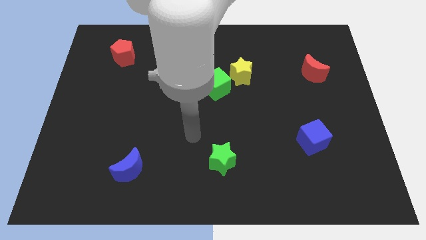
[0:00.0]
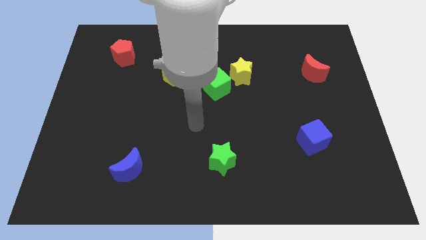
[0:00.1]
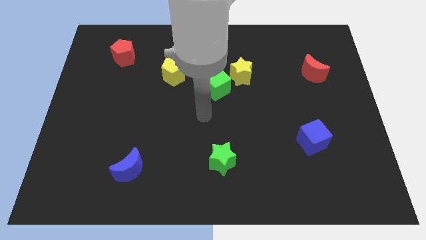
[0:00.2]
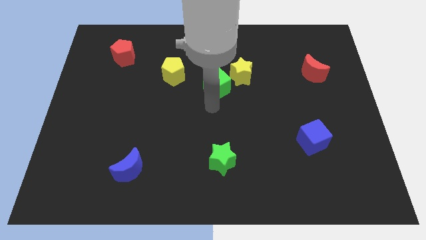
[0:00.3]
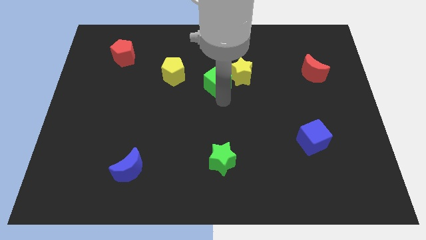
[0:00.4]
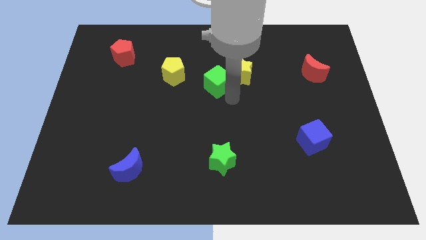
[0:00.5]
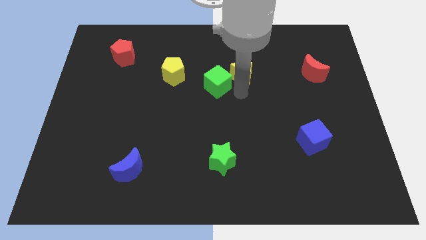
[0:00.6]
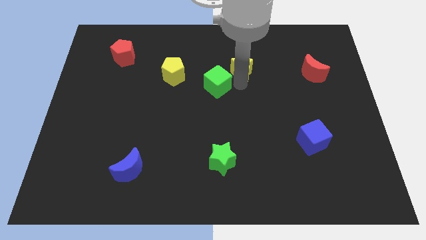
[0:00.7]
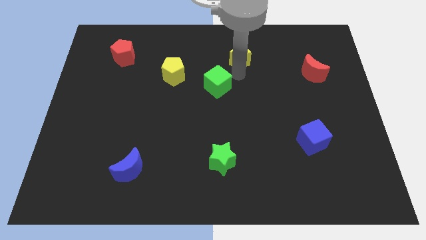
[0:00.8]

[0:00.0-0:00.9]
separate the green cube from the yellow star

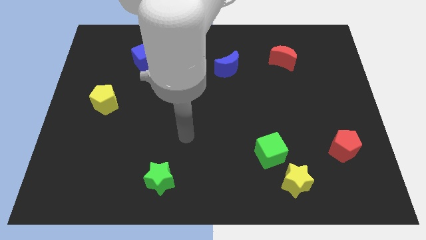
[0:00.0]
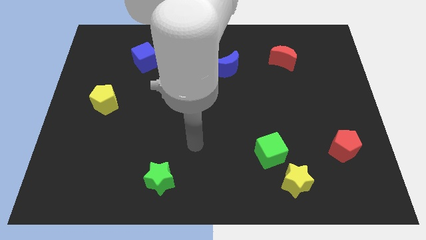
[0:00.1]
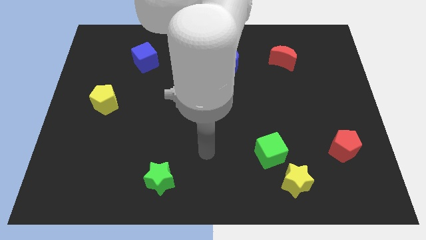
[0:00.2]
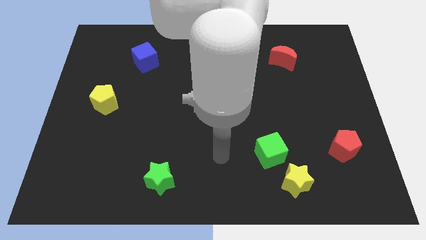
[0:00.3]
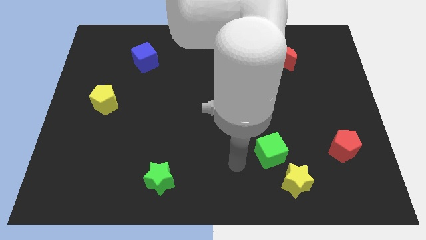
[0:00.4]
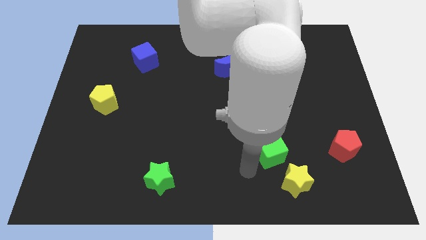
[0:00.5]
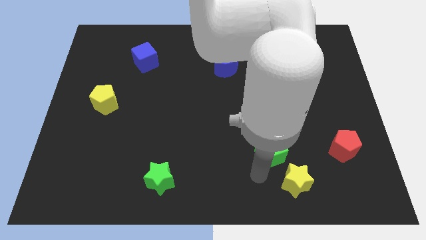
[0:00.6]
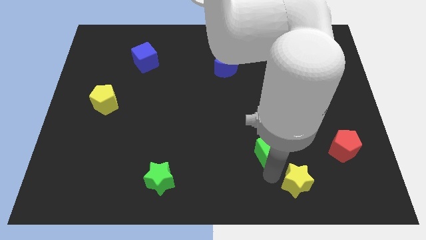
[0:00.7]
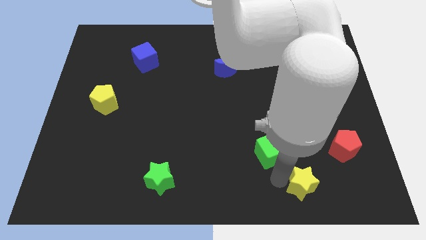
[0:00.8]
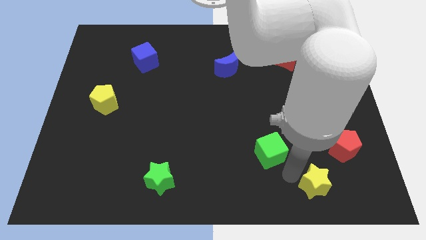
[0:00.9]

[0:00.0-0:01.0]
pull the green cube apart from the yellow star

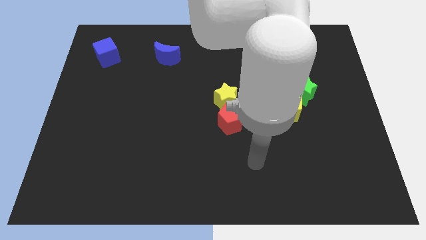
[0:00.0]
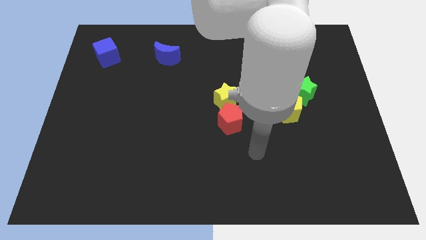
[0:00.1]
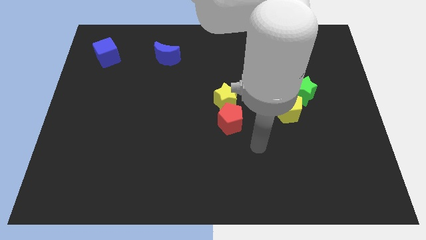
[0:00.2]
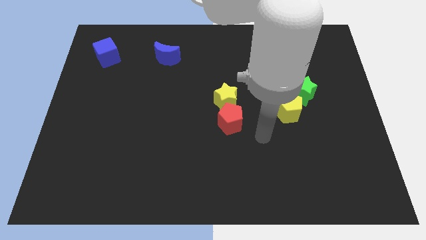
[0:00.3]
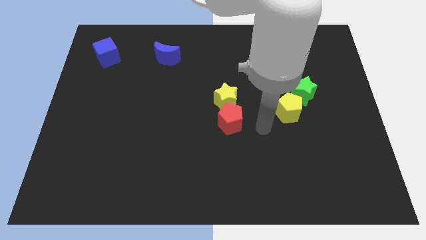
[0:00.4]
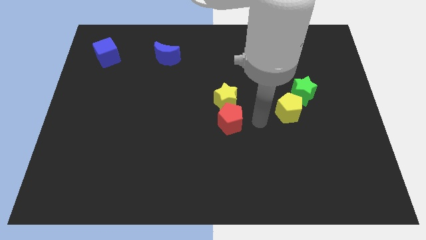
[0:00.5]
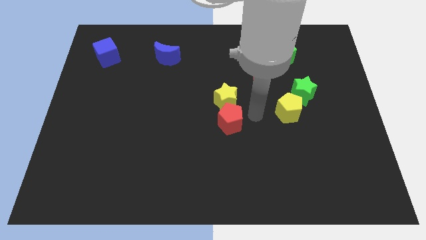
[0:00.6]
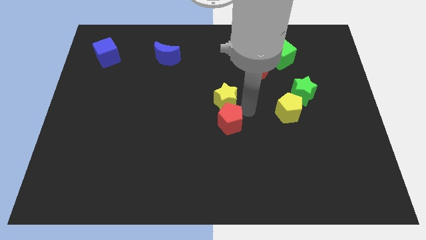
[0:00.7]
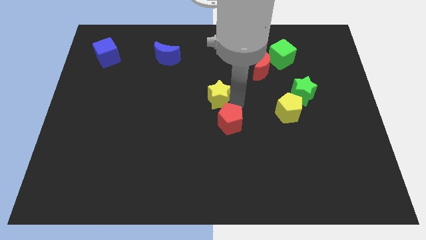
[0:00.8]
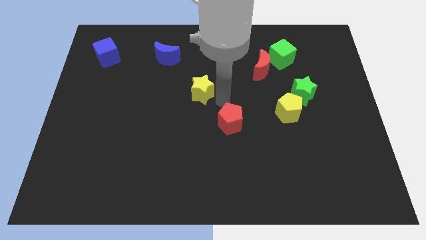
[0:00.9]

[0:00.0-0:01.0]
pull the red pentagon apart from the yellow star

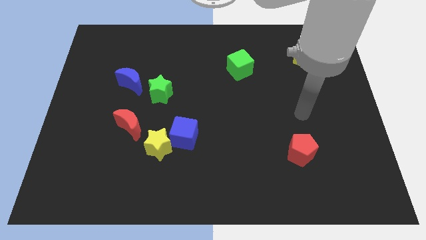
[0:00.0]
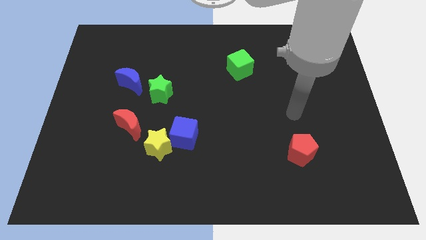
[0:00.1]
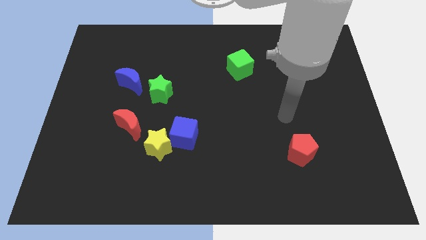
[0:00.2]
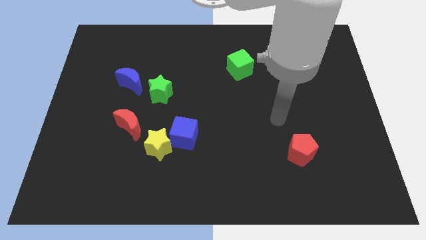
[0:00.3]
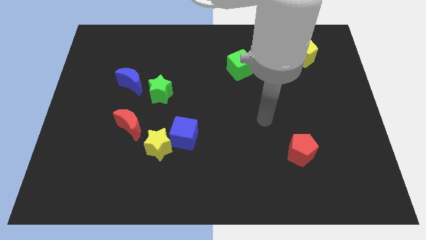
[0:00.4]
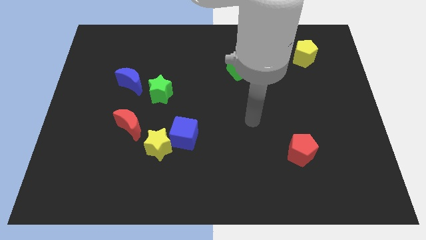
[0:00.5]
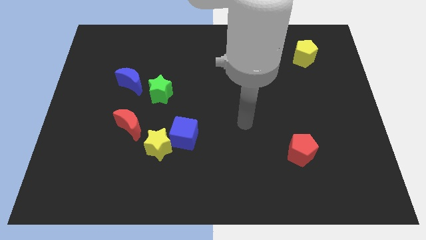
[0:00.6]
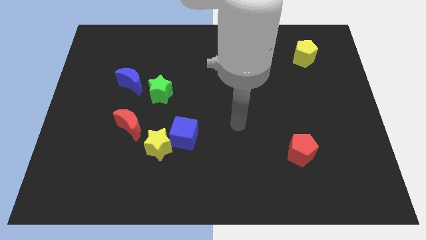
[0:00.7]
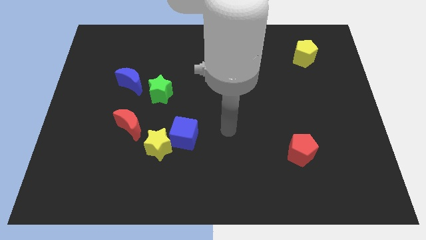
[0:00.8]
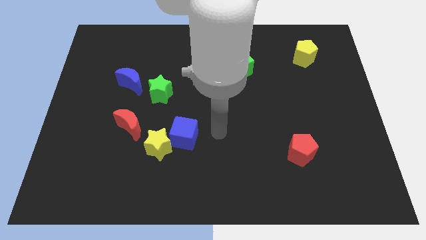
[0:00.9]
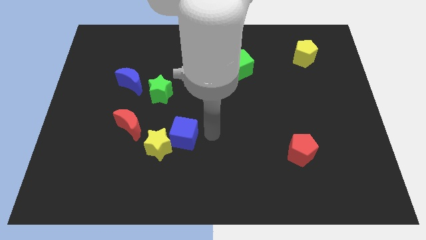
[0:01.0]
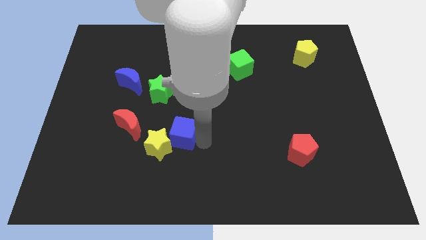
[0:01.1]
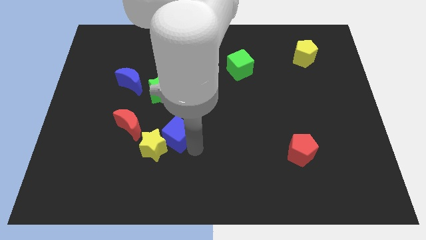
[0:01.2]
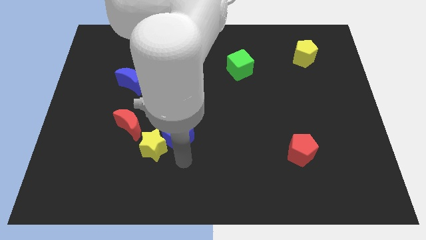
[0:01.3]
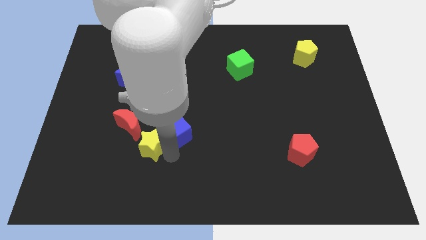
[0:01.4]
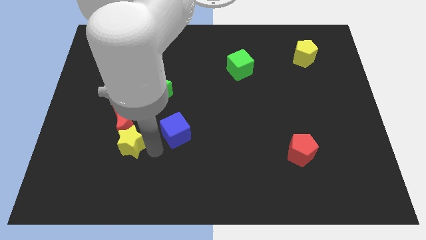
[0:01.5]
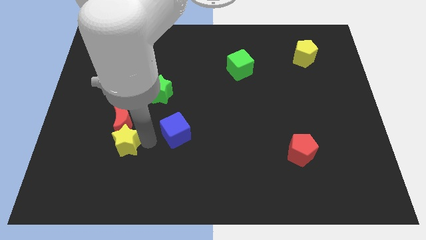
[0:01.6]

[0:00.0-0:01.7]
separate the blue cube from the yellow star

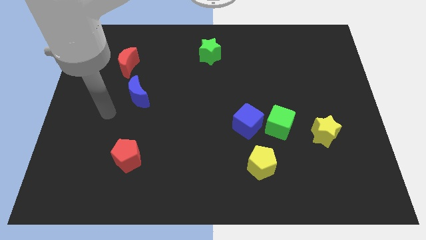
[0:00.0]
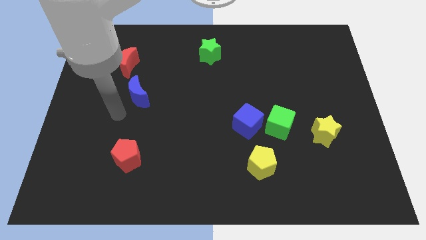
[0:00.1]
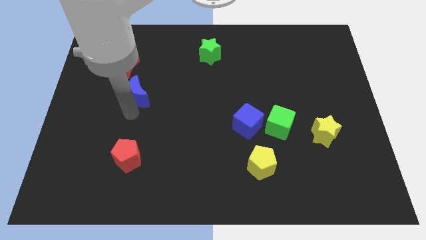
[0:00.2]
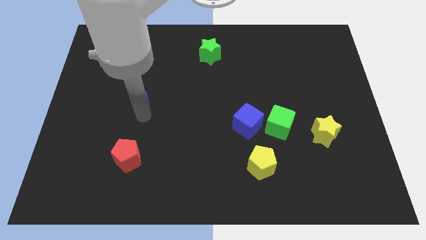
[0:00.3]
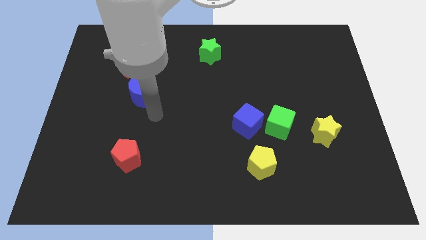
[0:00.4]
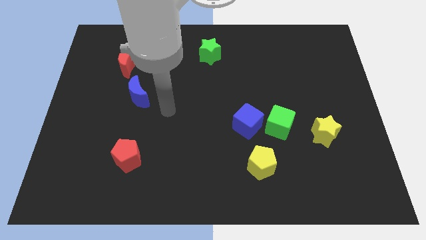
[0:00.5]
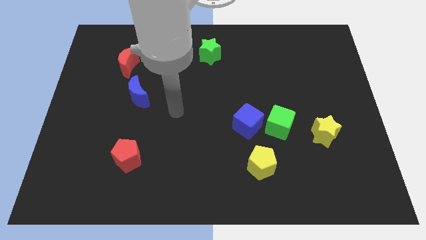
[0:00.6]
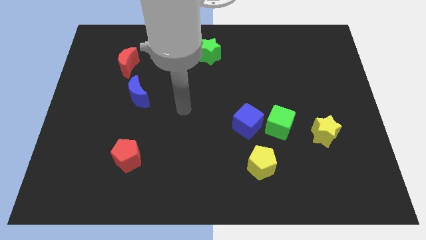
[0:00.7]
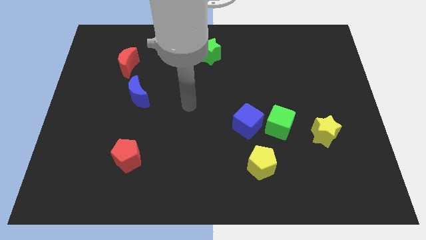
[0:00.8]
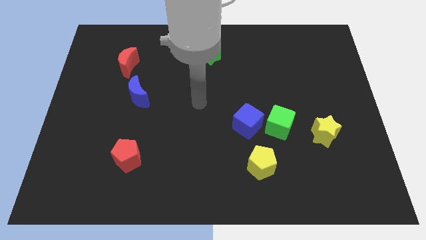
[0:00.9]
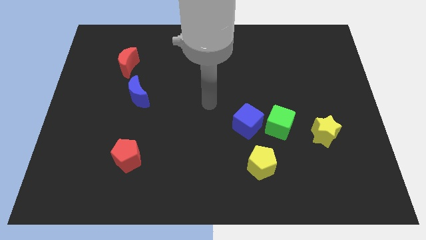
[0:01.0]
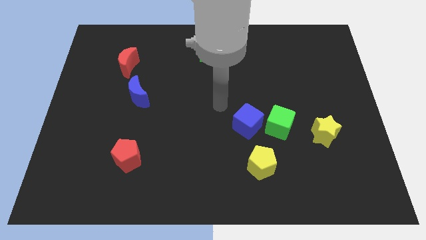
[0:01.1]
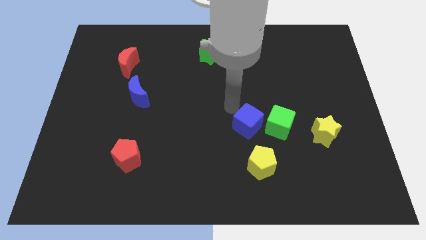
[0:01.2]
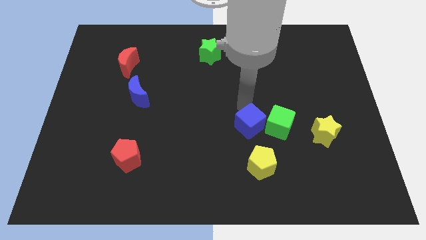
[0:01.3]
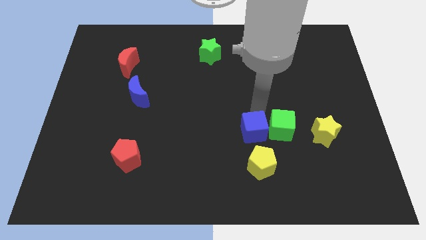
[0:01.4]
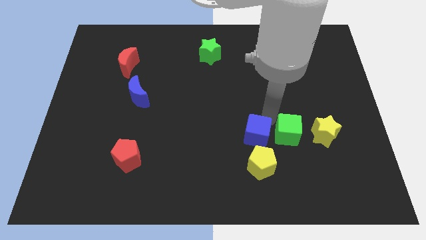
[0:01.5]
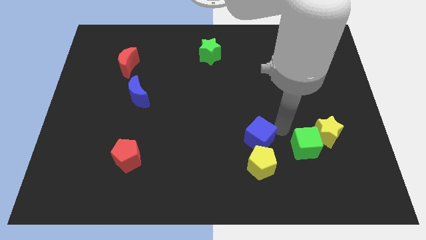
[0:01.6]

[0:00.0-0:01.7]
move the blue cube away from the green cube

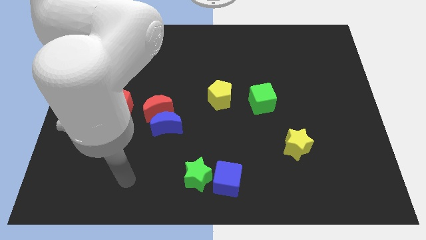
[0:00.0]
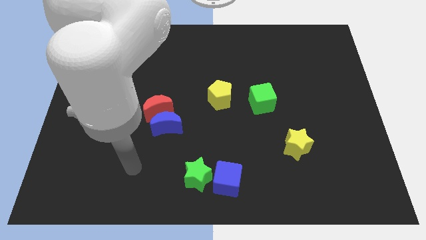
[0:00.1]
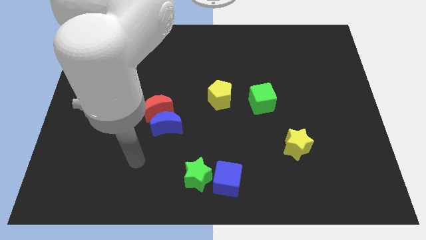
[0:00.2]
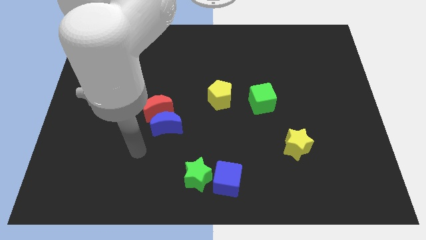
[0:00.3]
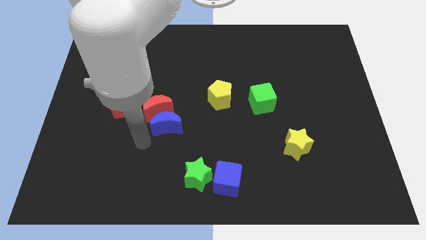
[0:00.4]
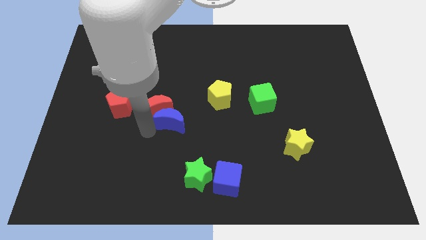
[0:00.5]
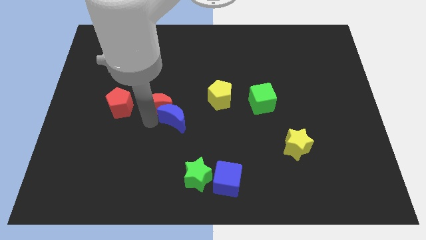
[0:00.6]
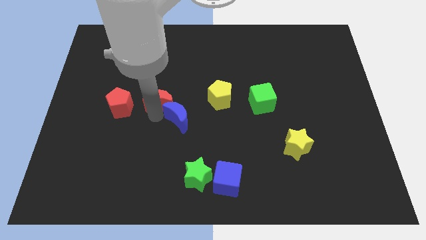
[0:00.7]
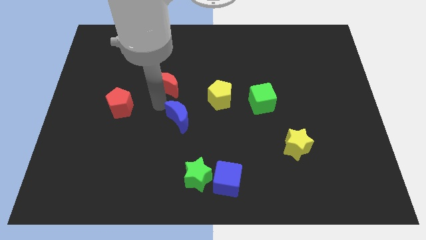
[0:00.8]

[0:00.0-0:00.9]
move the blue moon away from the red moon

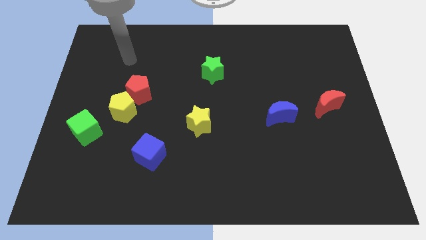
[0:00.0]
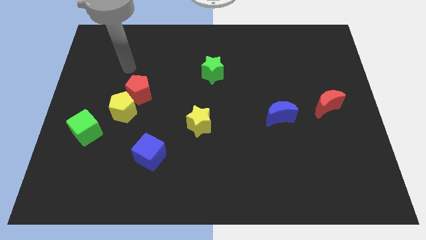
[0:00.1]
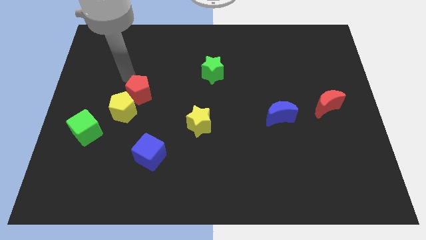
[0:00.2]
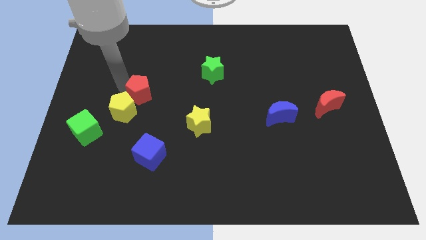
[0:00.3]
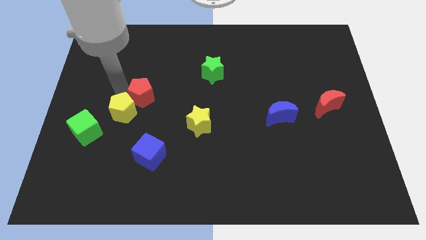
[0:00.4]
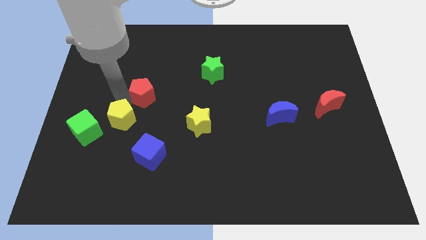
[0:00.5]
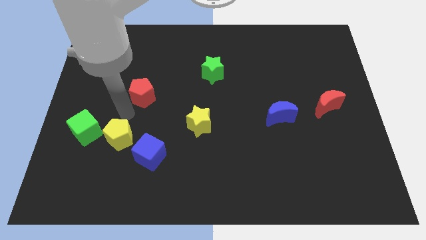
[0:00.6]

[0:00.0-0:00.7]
separate the red pentagon from the yellow pentagon

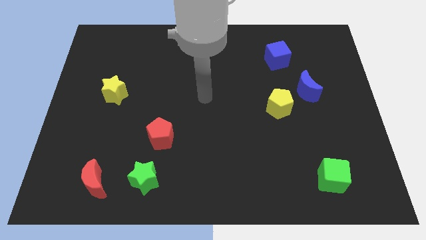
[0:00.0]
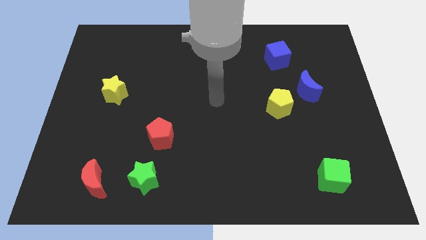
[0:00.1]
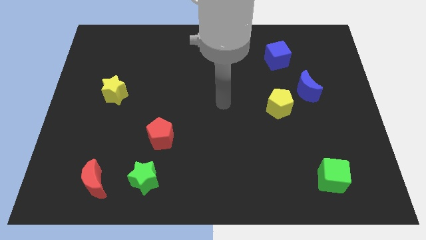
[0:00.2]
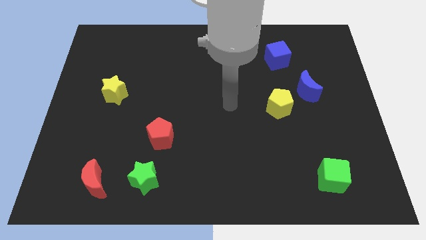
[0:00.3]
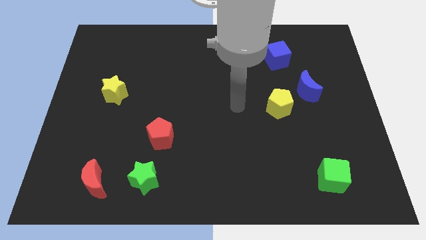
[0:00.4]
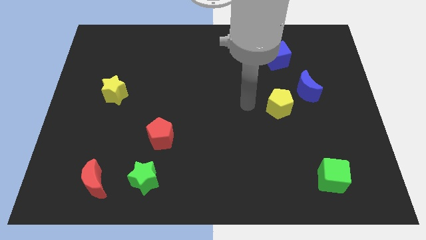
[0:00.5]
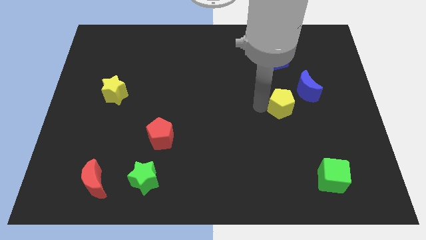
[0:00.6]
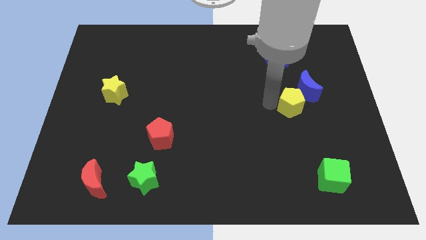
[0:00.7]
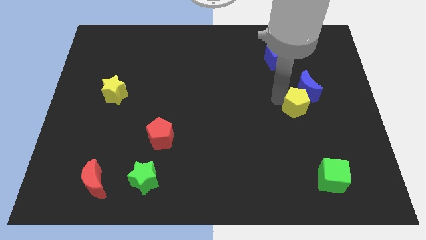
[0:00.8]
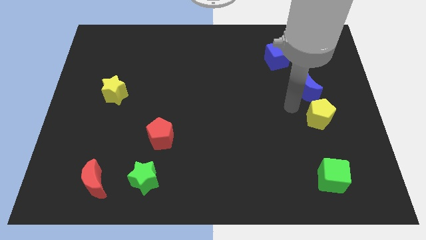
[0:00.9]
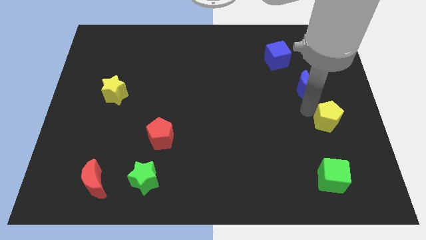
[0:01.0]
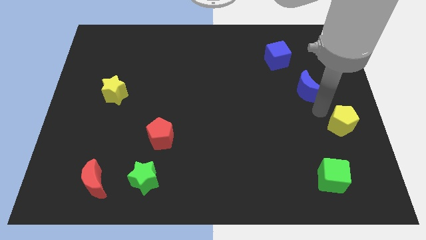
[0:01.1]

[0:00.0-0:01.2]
pull the blue moon apart from the yellow pentagon

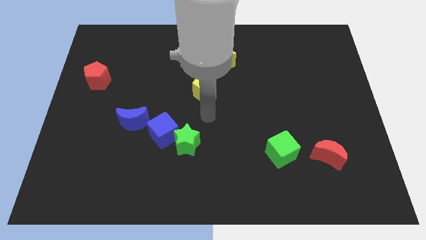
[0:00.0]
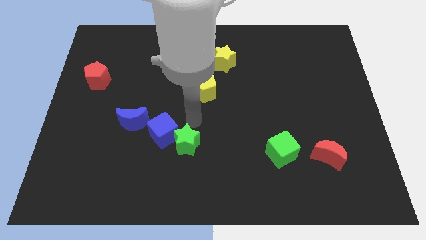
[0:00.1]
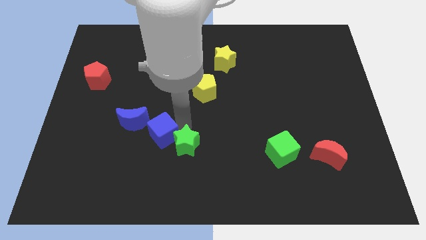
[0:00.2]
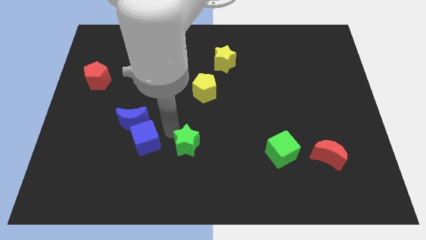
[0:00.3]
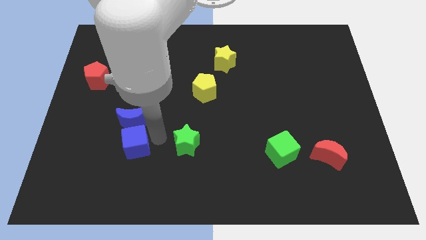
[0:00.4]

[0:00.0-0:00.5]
pull the green star apart from the blue cube
